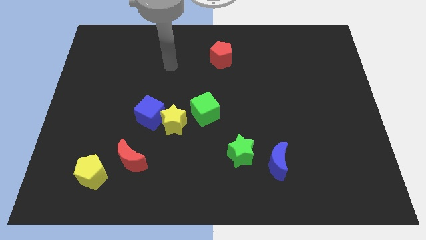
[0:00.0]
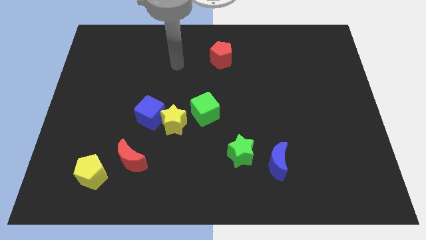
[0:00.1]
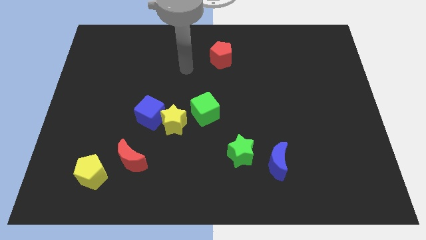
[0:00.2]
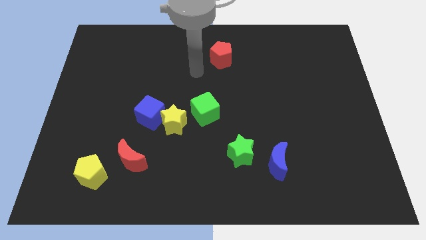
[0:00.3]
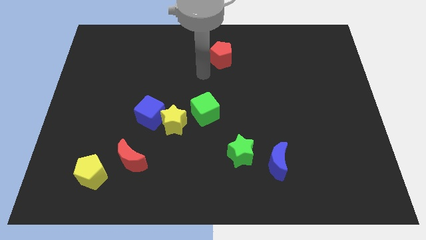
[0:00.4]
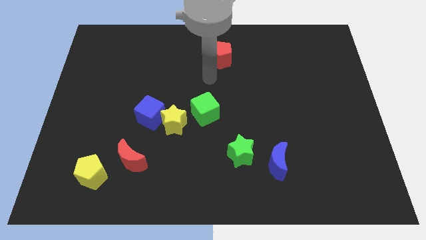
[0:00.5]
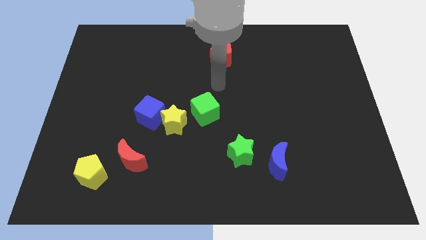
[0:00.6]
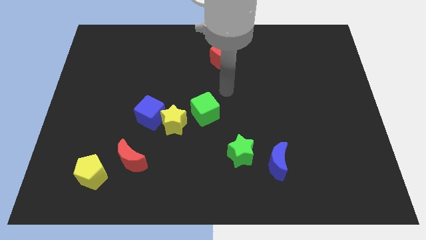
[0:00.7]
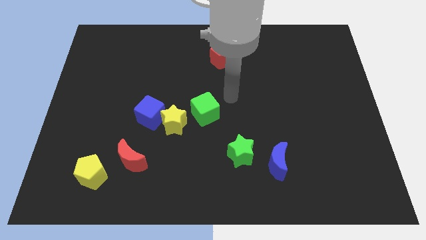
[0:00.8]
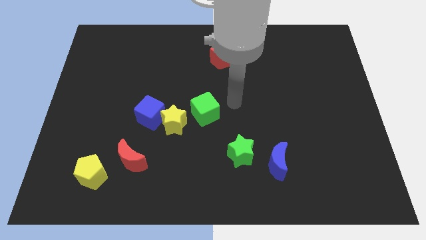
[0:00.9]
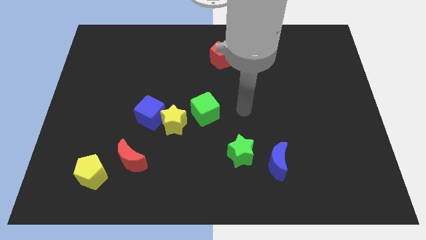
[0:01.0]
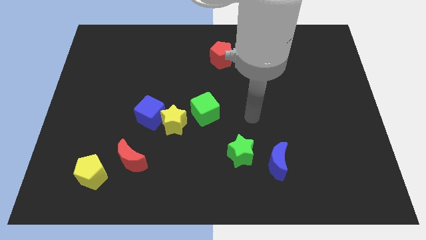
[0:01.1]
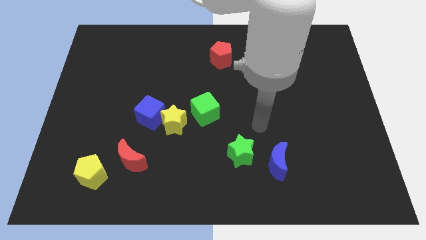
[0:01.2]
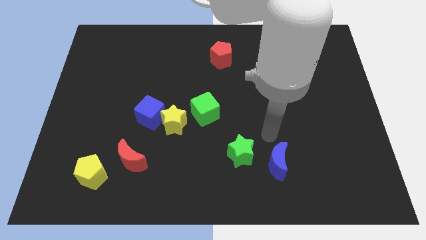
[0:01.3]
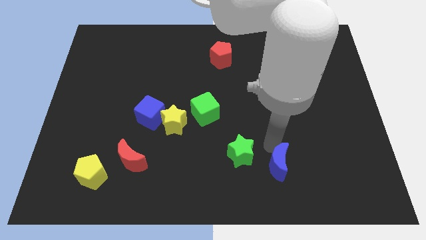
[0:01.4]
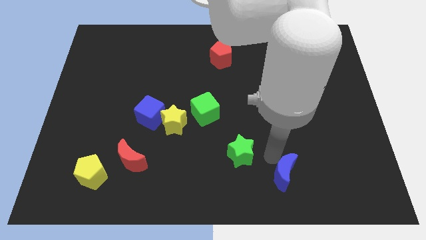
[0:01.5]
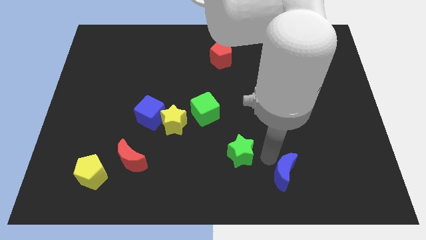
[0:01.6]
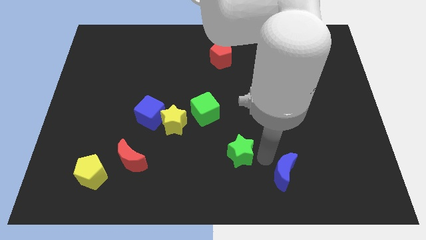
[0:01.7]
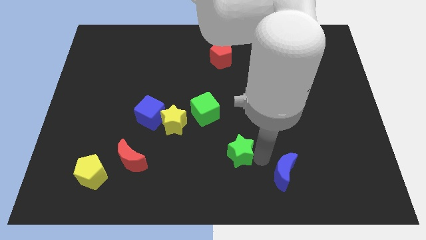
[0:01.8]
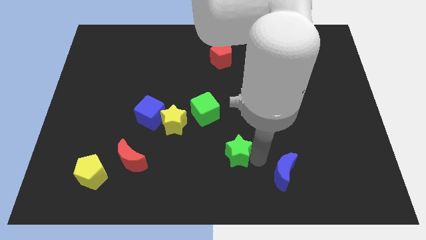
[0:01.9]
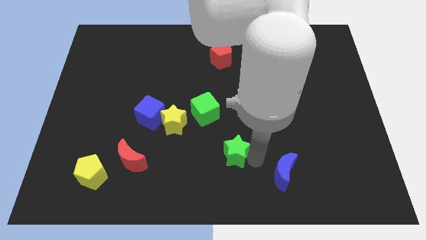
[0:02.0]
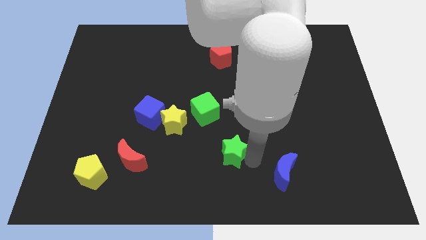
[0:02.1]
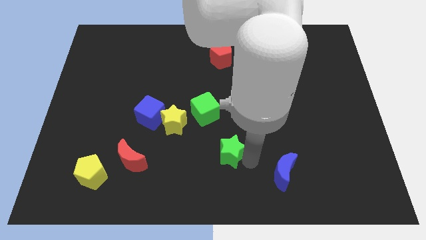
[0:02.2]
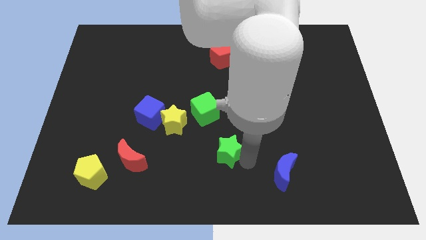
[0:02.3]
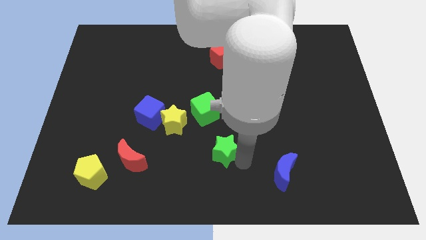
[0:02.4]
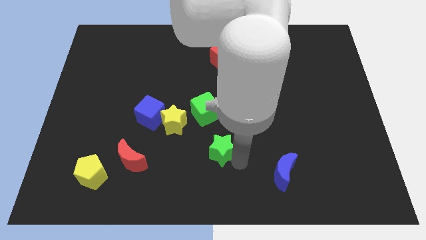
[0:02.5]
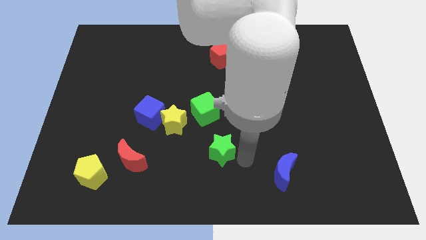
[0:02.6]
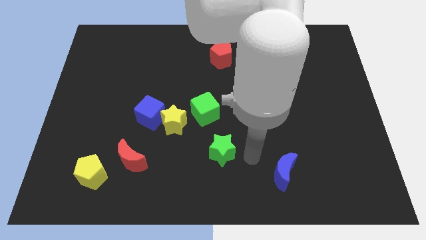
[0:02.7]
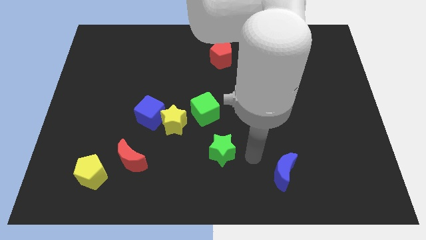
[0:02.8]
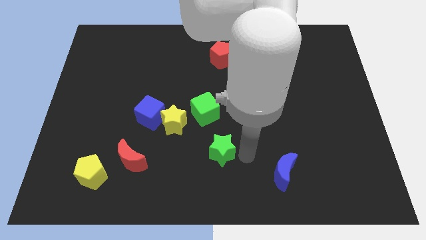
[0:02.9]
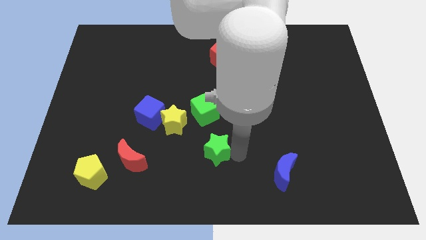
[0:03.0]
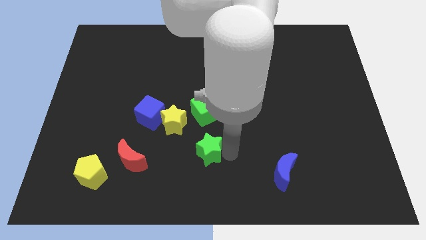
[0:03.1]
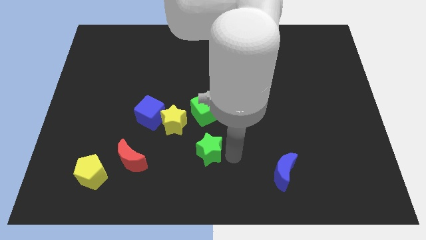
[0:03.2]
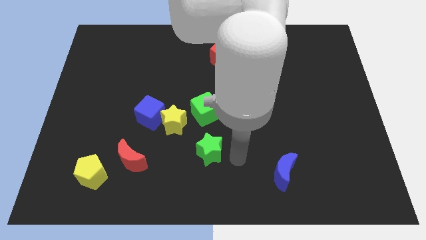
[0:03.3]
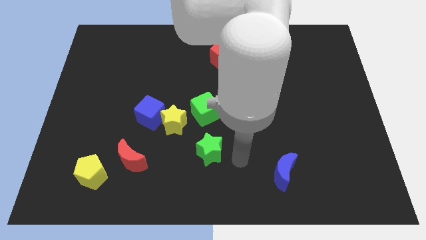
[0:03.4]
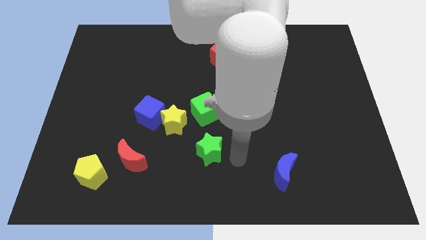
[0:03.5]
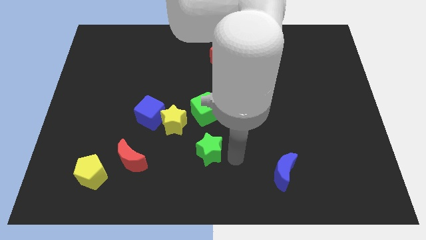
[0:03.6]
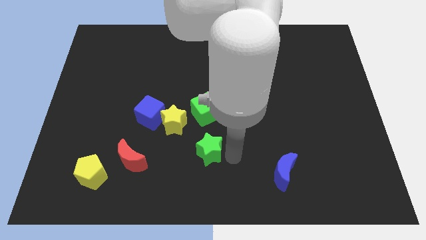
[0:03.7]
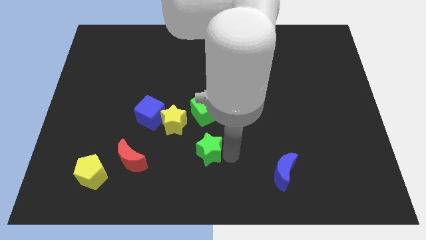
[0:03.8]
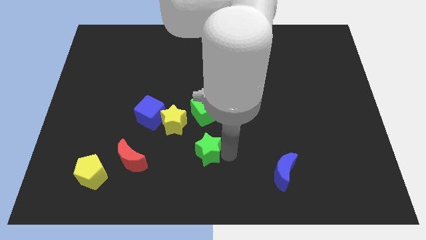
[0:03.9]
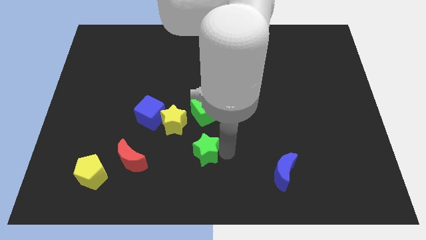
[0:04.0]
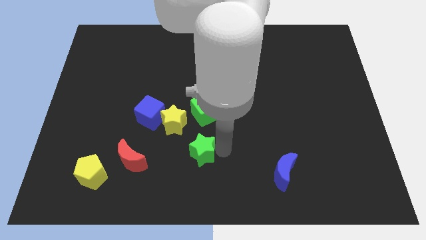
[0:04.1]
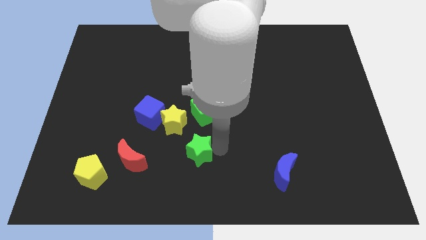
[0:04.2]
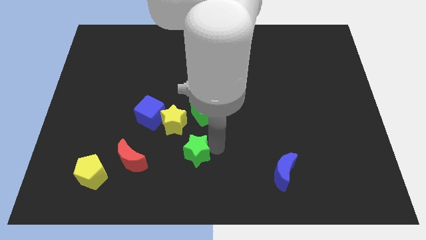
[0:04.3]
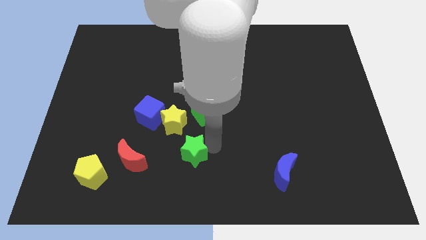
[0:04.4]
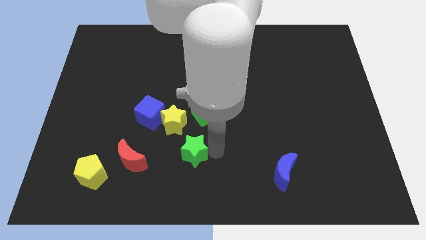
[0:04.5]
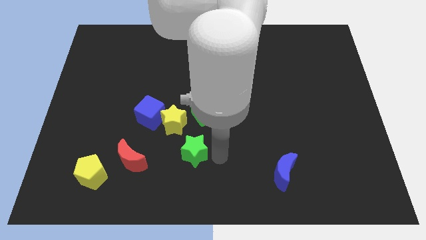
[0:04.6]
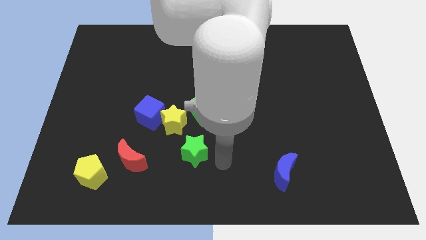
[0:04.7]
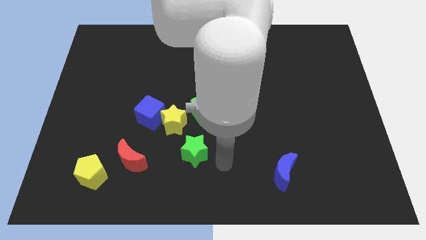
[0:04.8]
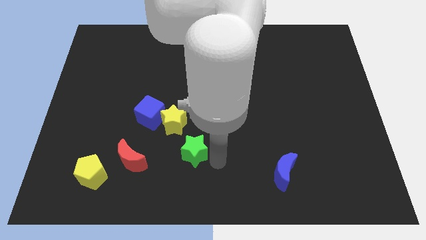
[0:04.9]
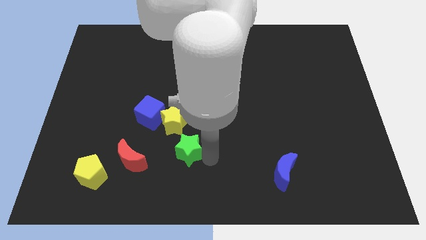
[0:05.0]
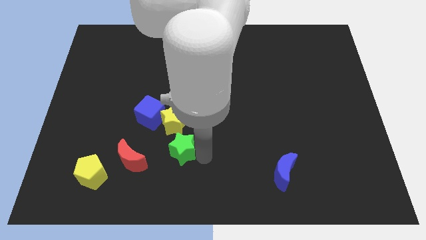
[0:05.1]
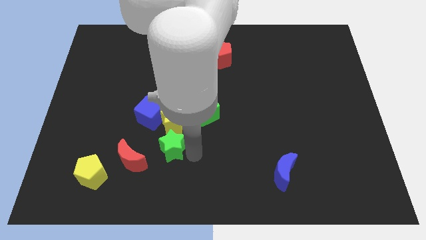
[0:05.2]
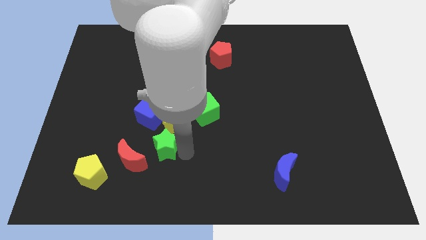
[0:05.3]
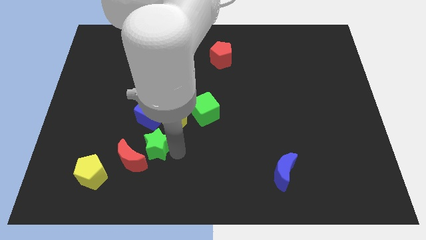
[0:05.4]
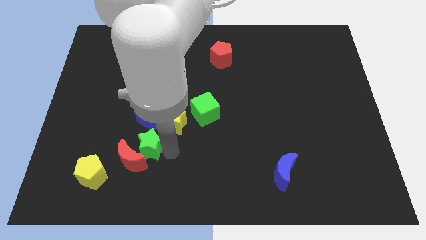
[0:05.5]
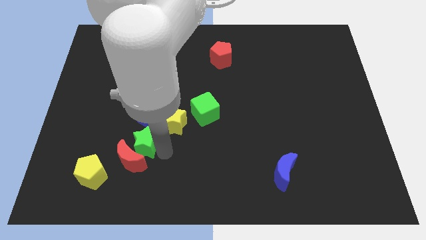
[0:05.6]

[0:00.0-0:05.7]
move the green star left

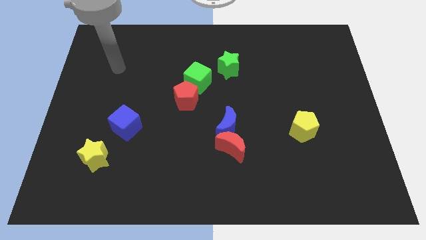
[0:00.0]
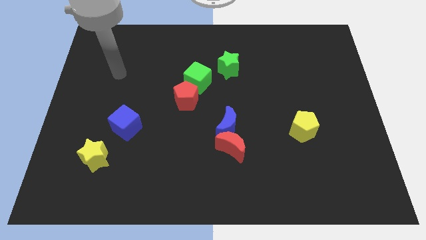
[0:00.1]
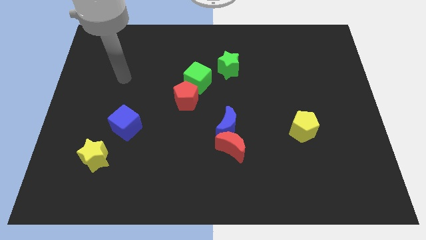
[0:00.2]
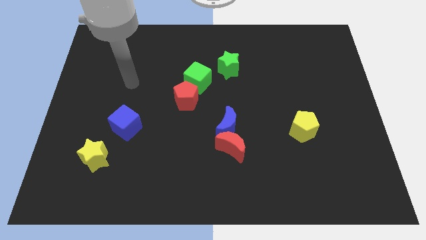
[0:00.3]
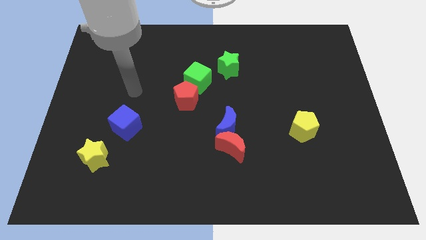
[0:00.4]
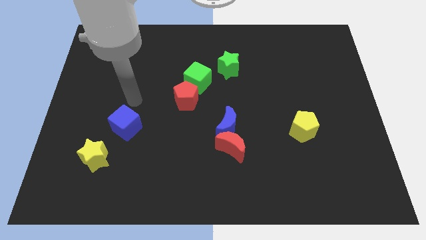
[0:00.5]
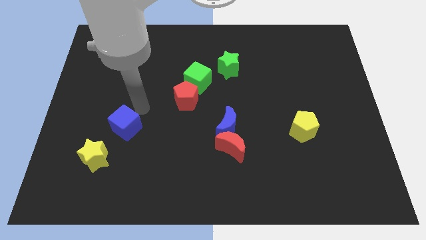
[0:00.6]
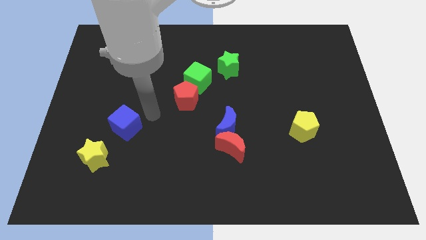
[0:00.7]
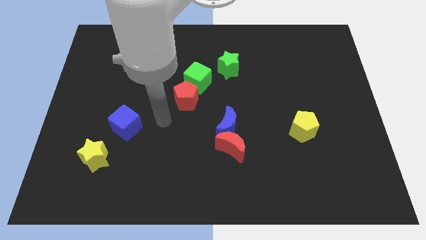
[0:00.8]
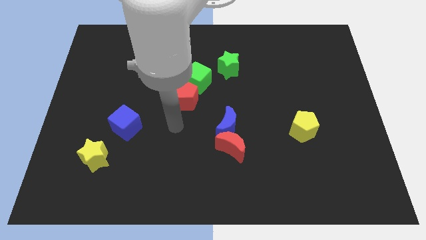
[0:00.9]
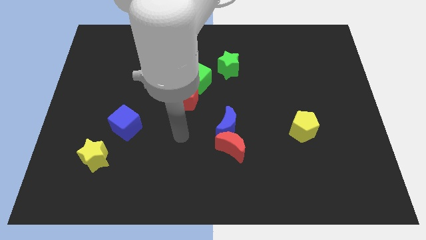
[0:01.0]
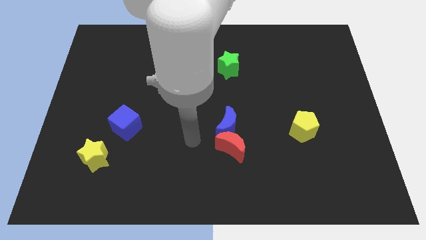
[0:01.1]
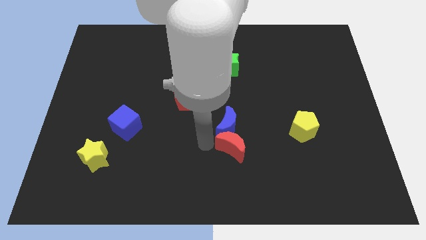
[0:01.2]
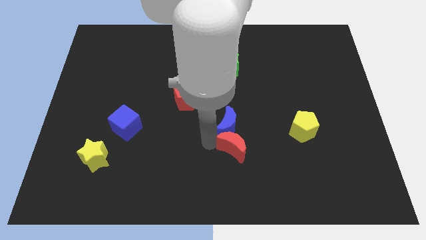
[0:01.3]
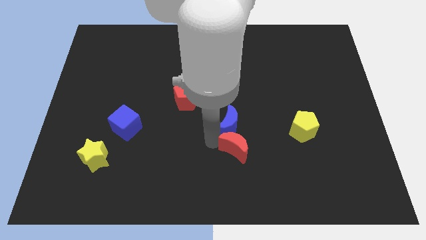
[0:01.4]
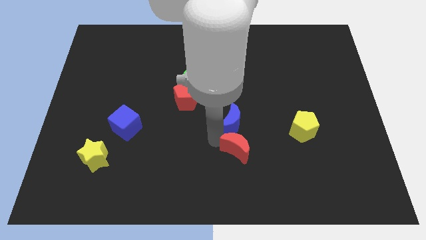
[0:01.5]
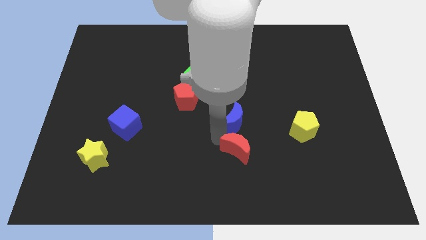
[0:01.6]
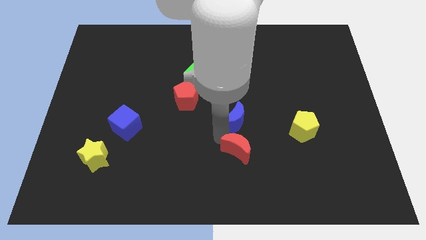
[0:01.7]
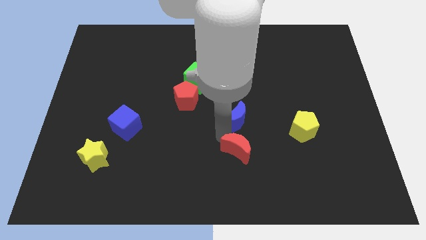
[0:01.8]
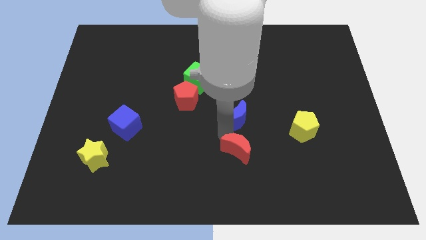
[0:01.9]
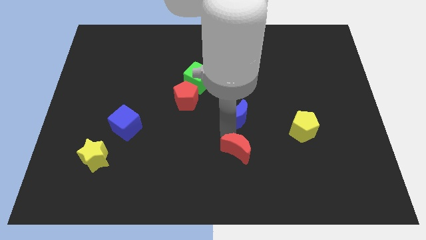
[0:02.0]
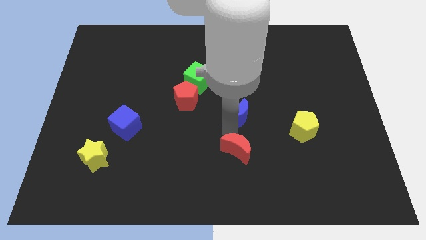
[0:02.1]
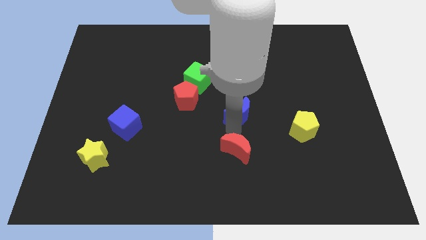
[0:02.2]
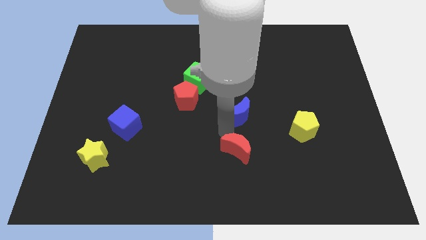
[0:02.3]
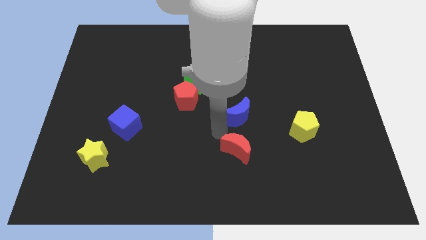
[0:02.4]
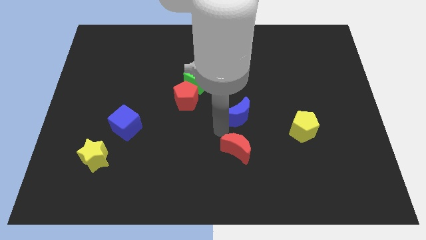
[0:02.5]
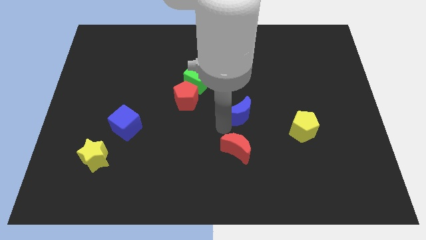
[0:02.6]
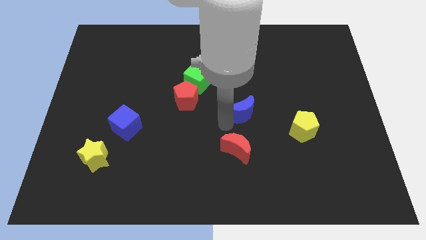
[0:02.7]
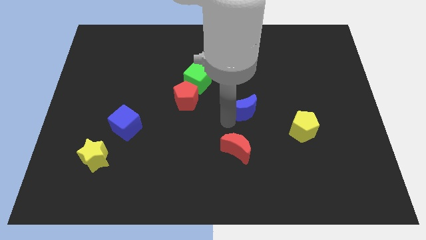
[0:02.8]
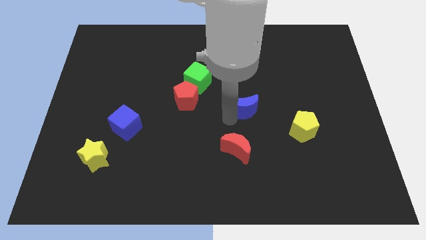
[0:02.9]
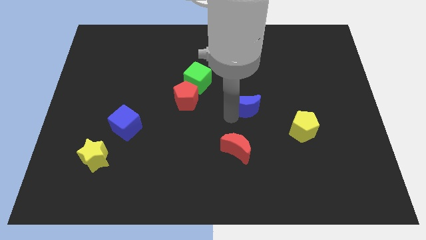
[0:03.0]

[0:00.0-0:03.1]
move the blue moon up and to the right diagonally a little bit
